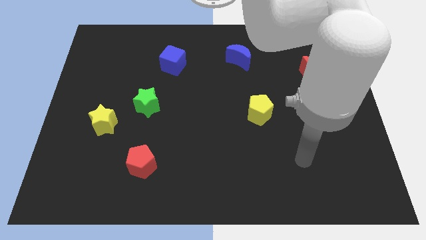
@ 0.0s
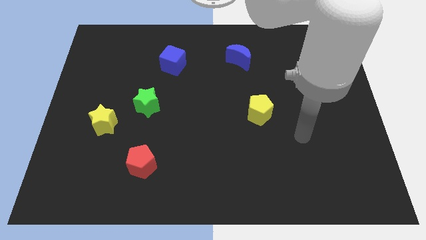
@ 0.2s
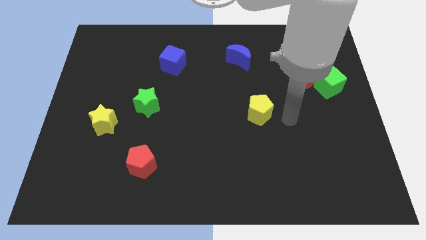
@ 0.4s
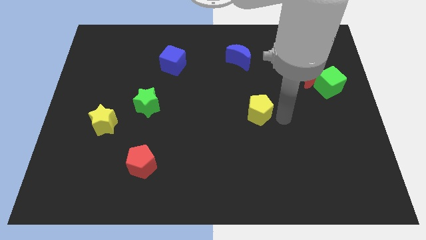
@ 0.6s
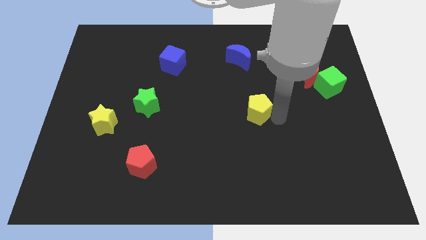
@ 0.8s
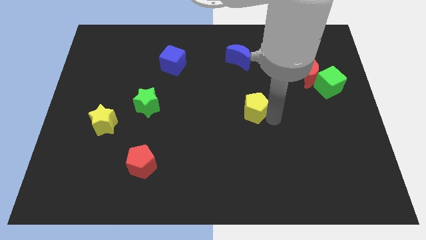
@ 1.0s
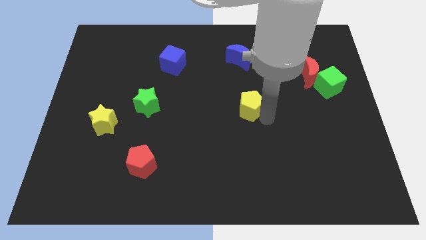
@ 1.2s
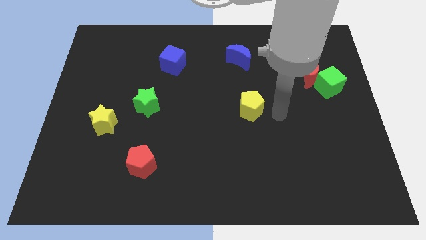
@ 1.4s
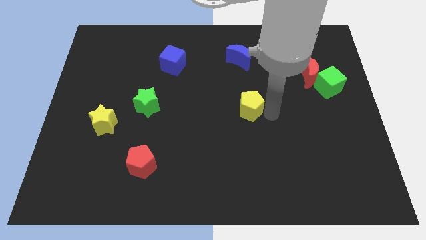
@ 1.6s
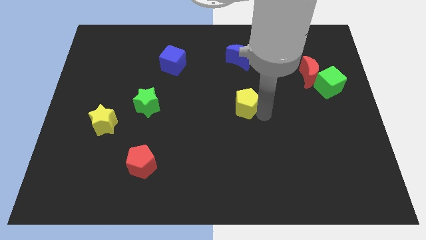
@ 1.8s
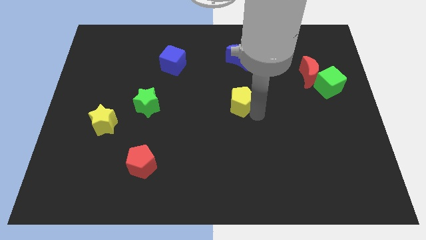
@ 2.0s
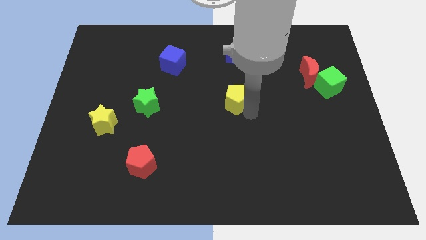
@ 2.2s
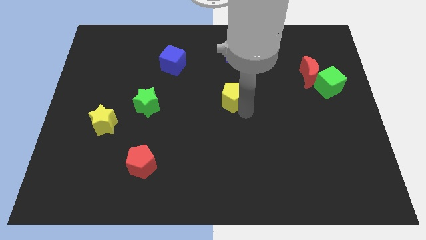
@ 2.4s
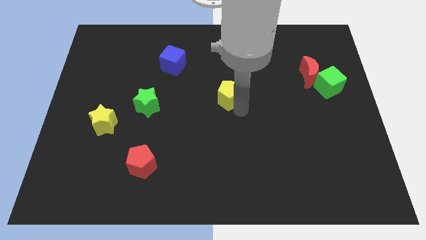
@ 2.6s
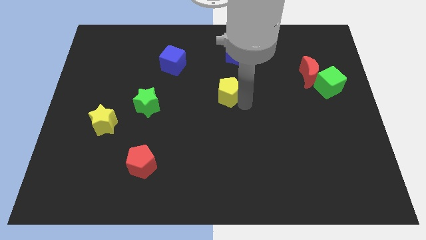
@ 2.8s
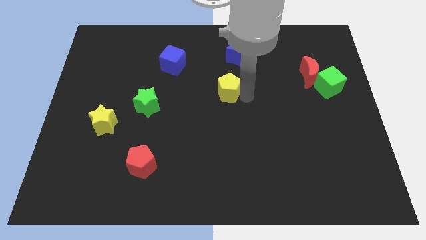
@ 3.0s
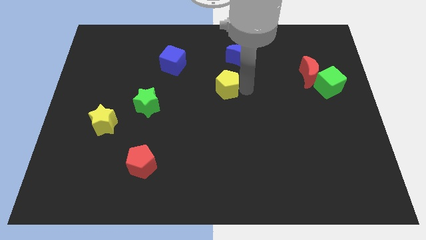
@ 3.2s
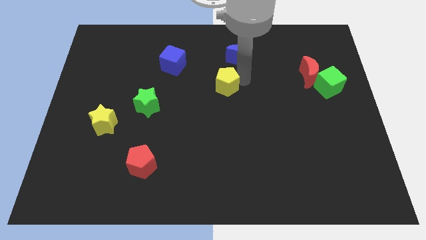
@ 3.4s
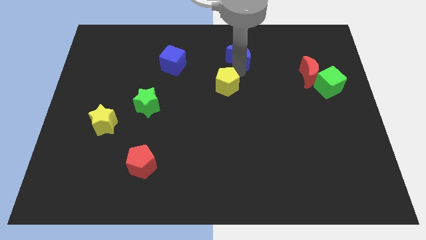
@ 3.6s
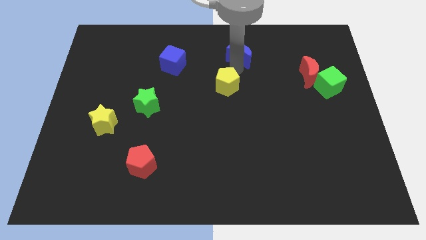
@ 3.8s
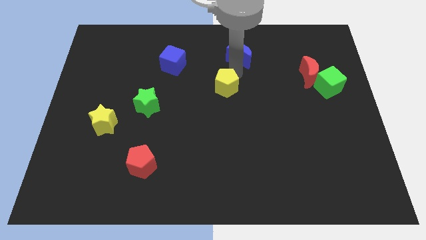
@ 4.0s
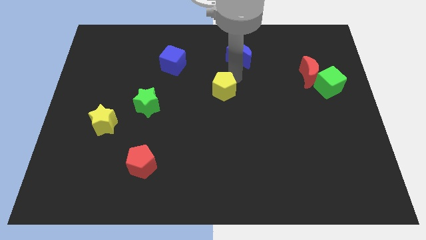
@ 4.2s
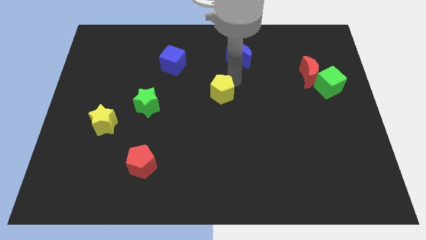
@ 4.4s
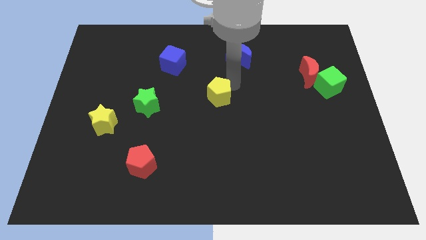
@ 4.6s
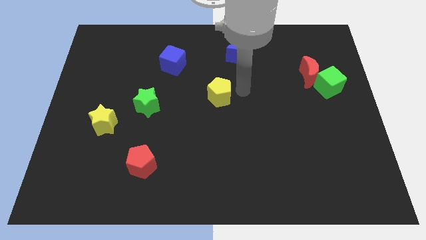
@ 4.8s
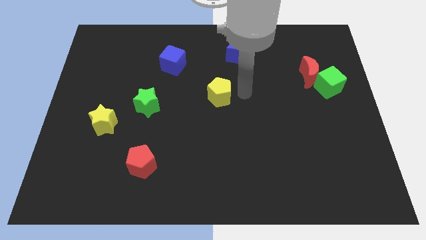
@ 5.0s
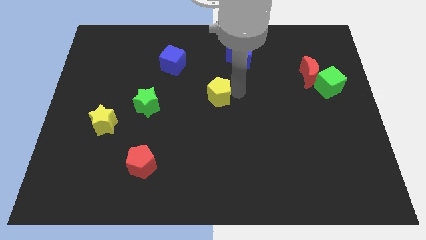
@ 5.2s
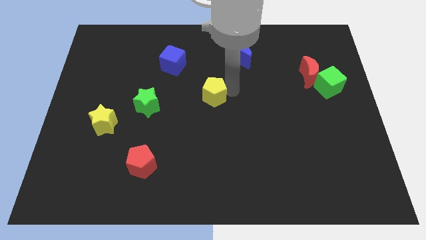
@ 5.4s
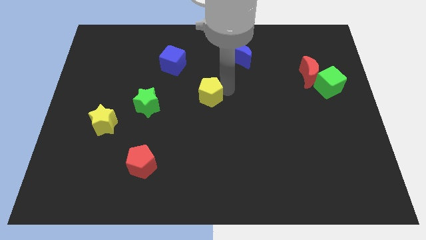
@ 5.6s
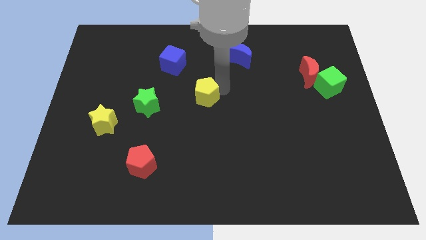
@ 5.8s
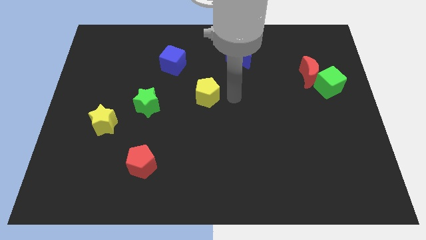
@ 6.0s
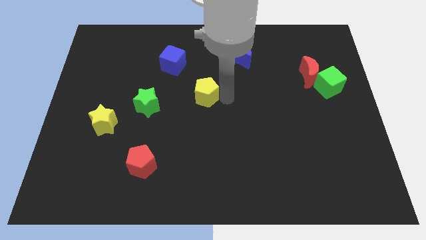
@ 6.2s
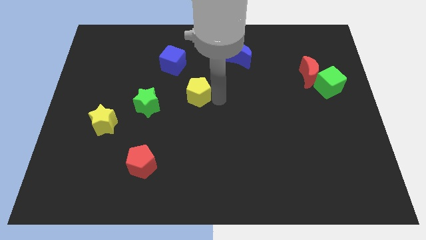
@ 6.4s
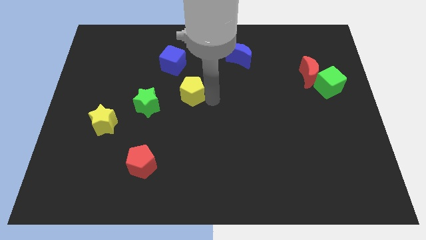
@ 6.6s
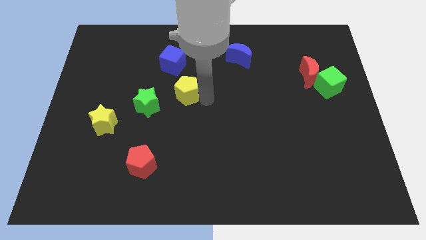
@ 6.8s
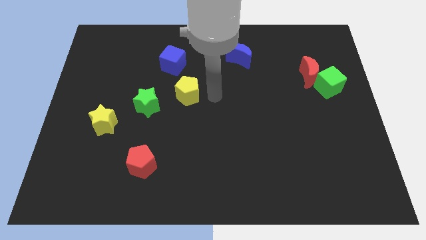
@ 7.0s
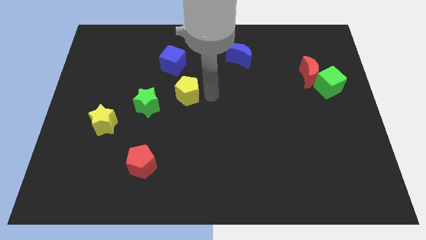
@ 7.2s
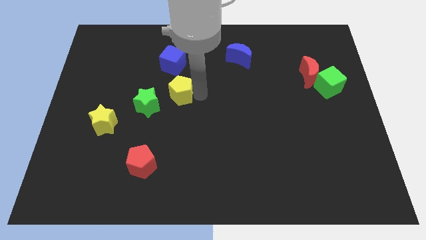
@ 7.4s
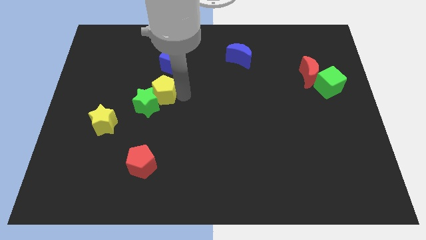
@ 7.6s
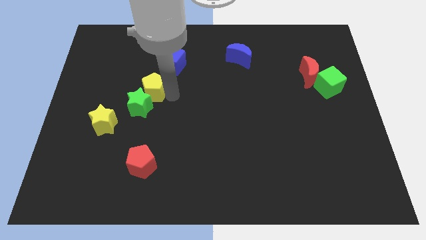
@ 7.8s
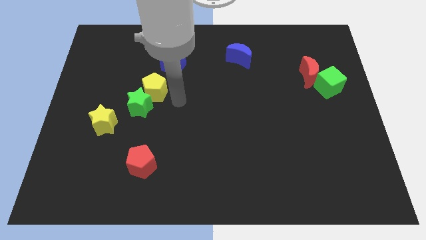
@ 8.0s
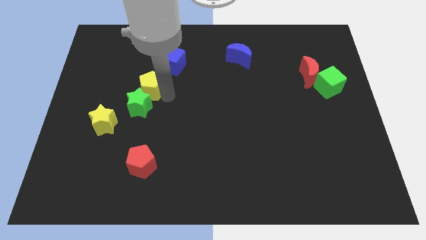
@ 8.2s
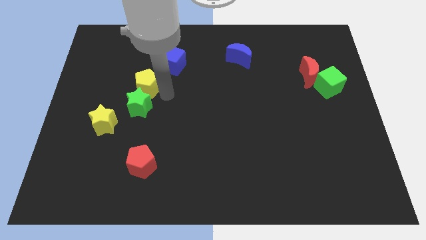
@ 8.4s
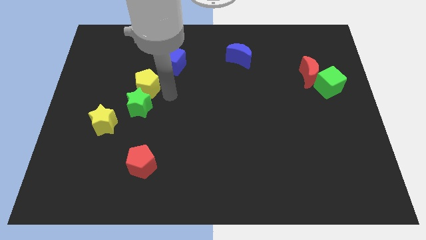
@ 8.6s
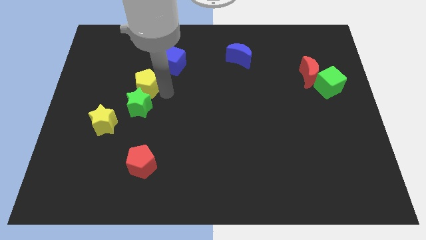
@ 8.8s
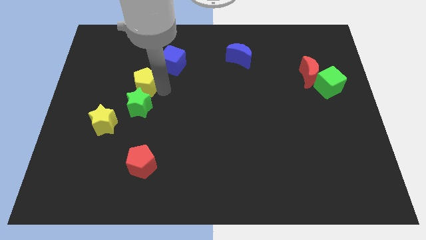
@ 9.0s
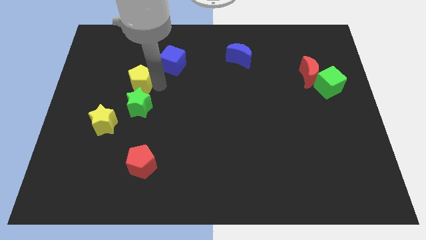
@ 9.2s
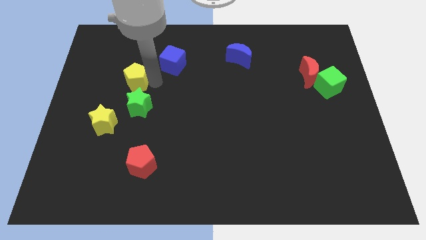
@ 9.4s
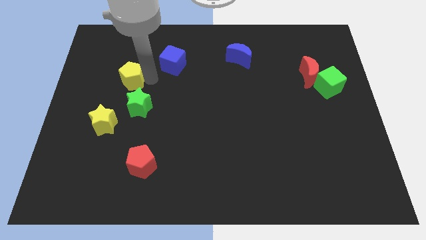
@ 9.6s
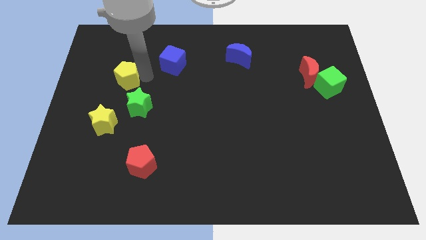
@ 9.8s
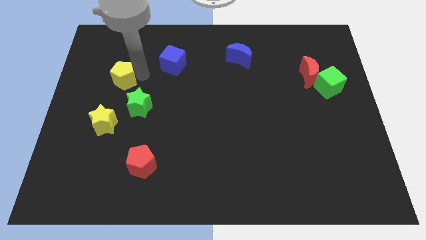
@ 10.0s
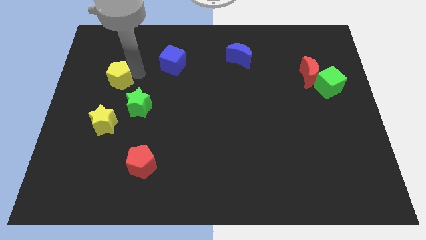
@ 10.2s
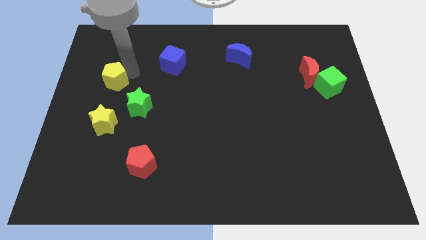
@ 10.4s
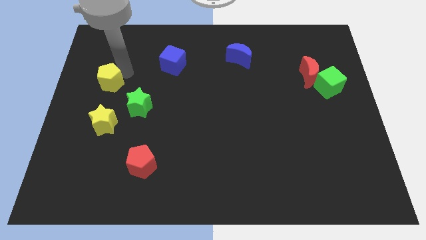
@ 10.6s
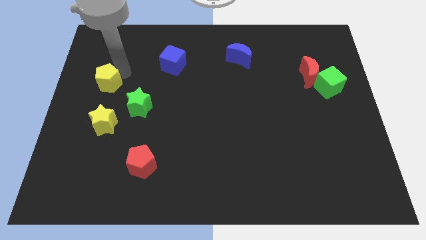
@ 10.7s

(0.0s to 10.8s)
put the yellow pentagon to the left side of the board

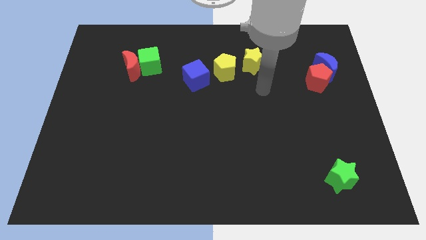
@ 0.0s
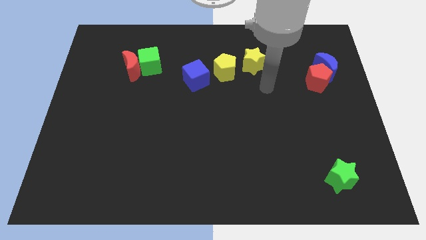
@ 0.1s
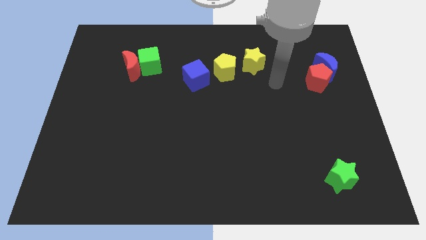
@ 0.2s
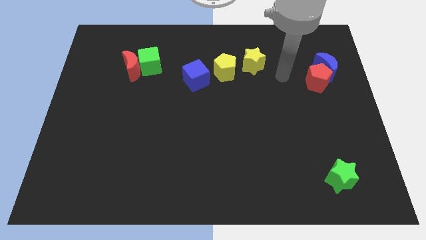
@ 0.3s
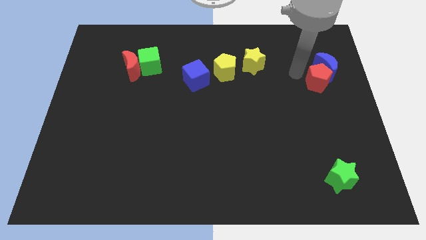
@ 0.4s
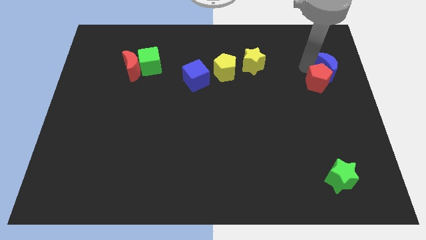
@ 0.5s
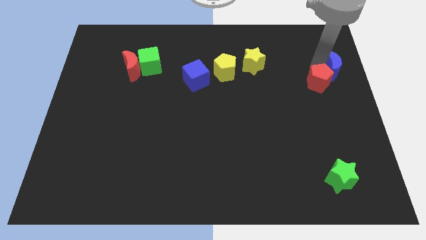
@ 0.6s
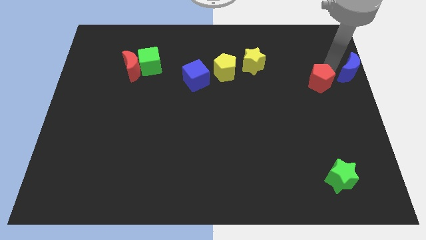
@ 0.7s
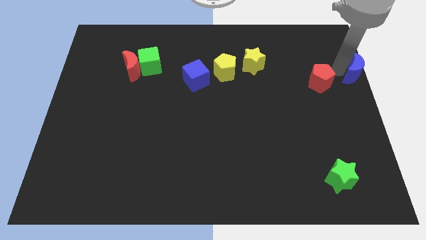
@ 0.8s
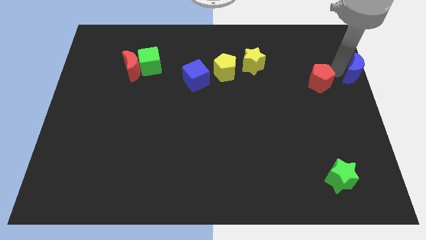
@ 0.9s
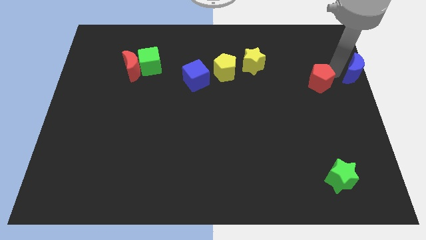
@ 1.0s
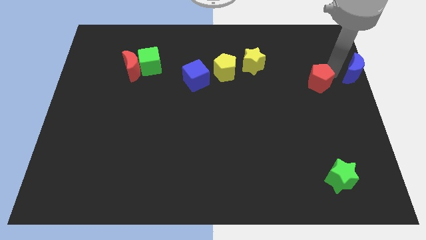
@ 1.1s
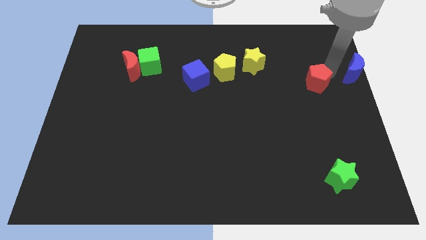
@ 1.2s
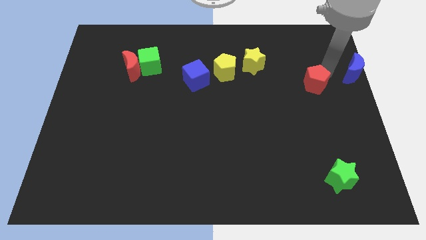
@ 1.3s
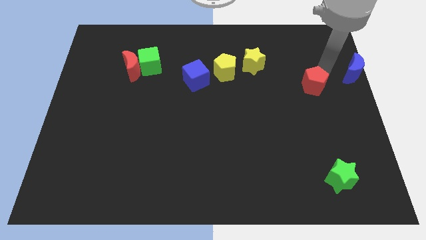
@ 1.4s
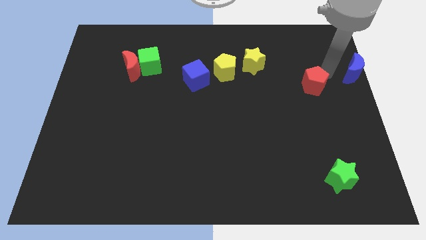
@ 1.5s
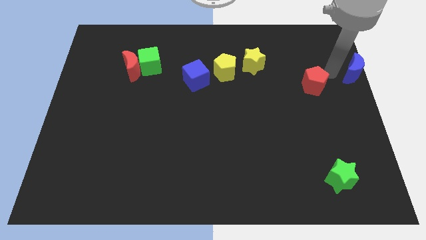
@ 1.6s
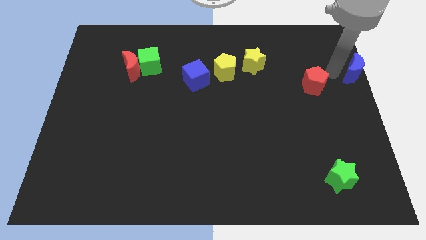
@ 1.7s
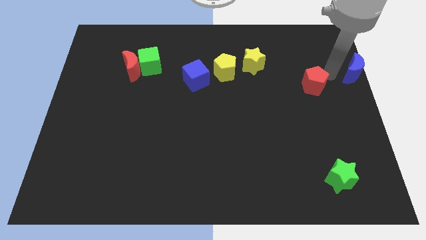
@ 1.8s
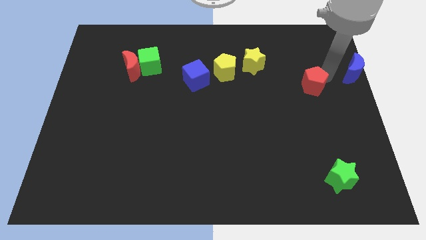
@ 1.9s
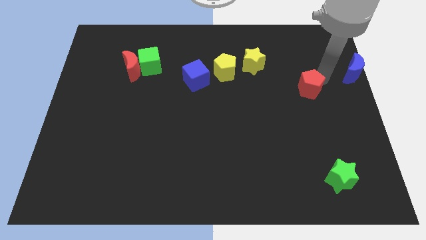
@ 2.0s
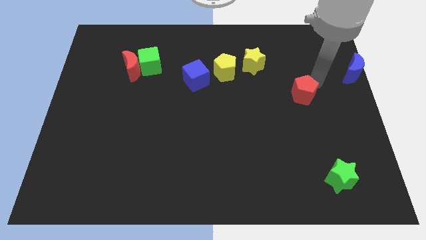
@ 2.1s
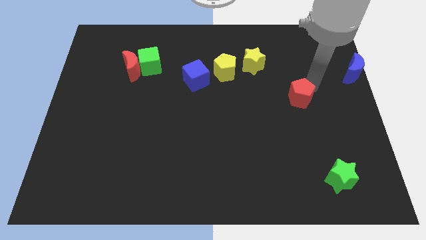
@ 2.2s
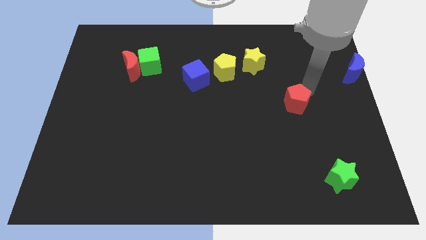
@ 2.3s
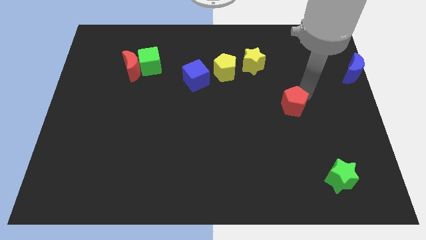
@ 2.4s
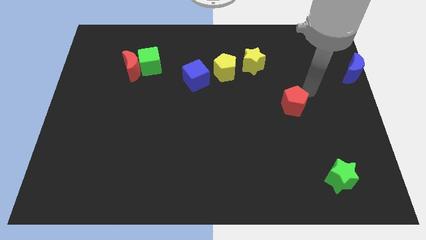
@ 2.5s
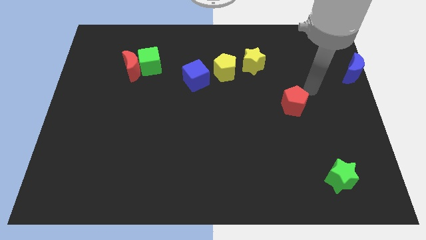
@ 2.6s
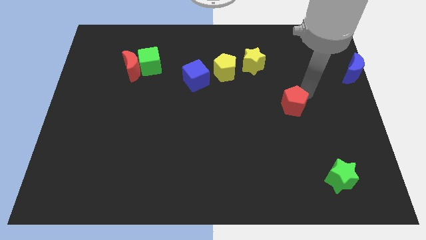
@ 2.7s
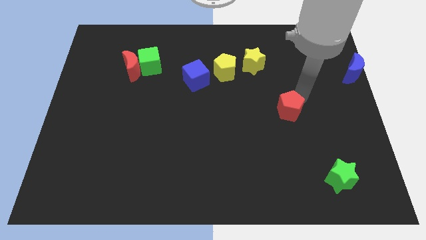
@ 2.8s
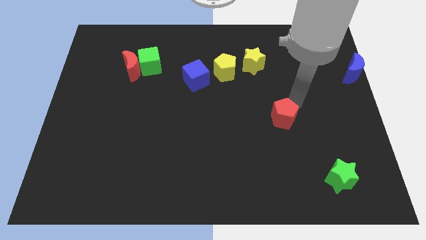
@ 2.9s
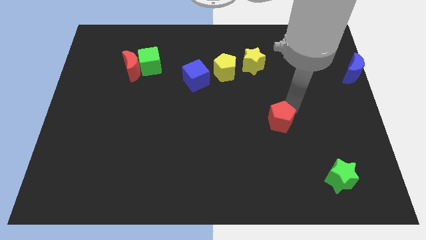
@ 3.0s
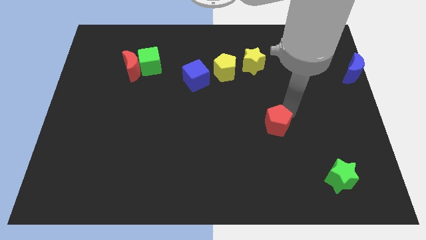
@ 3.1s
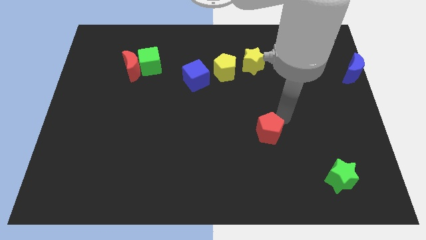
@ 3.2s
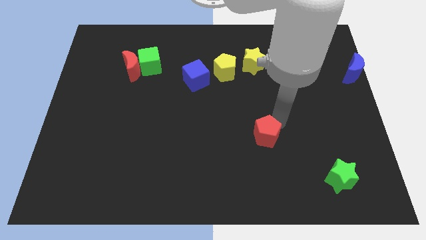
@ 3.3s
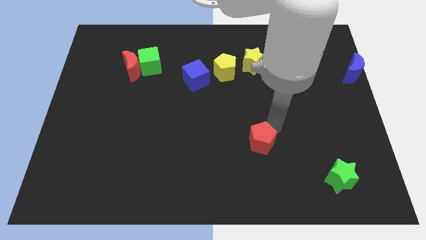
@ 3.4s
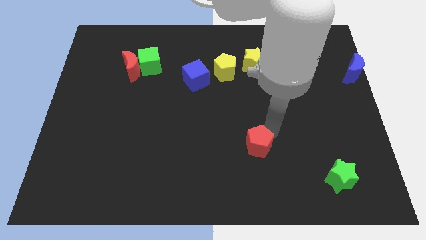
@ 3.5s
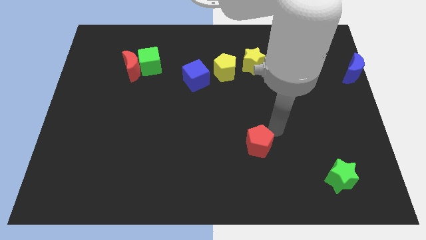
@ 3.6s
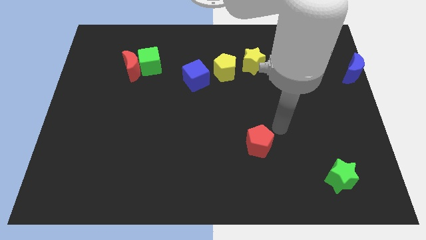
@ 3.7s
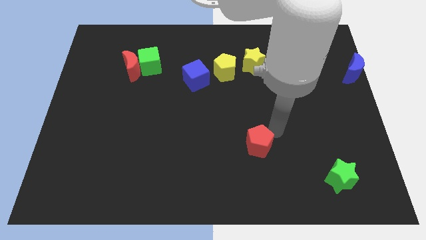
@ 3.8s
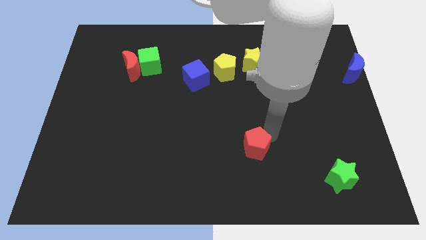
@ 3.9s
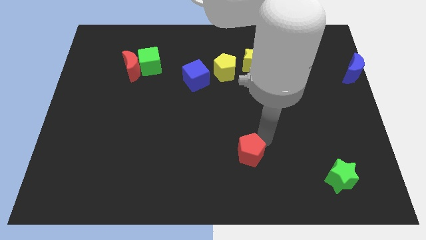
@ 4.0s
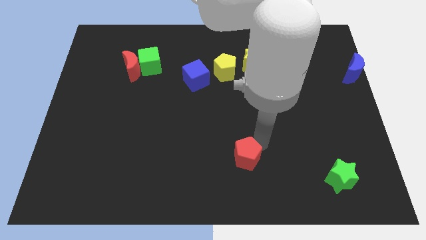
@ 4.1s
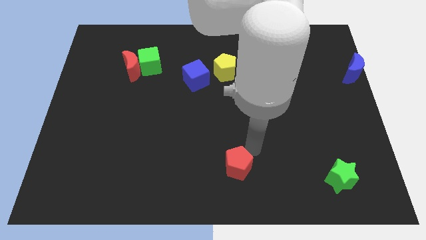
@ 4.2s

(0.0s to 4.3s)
put the red pentagon to the bottom
